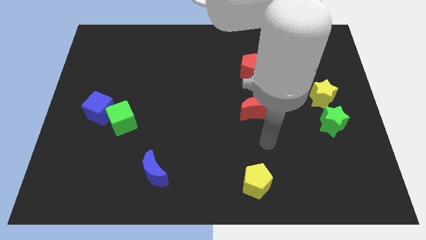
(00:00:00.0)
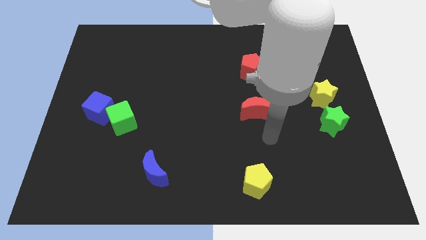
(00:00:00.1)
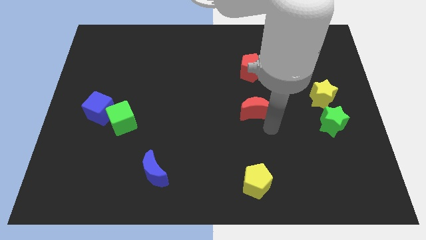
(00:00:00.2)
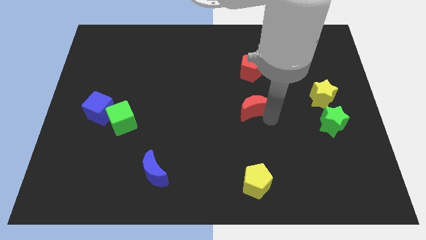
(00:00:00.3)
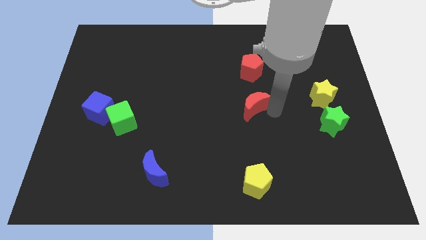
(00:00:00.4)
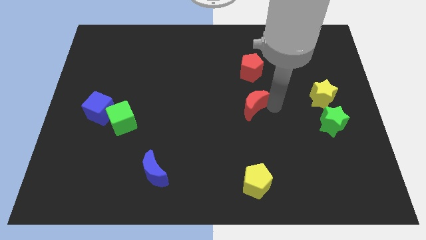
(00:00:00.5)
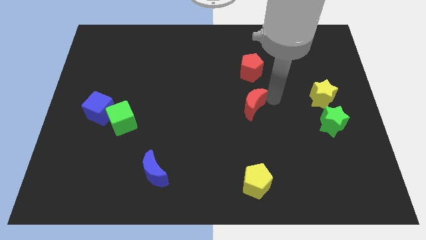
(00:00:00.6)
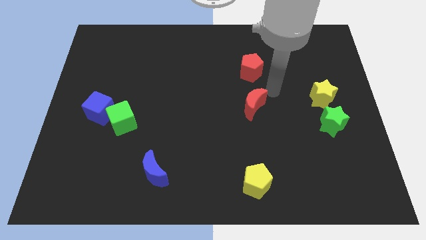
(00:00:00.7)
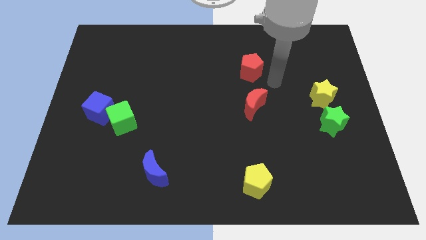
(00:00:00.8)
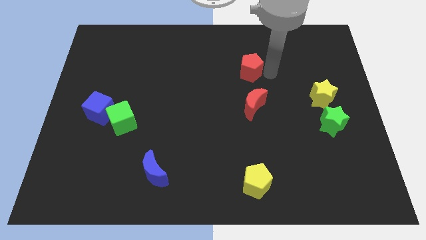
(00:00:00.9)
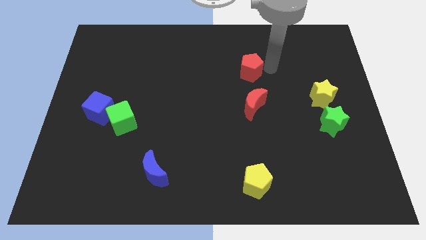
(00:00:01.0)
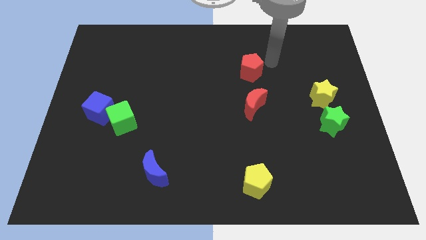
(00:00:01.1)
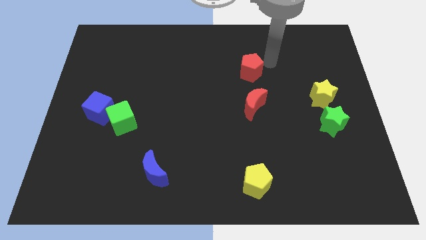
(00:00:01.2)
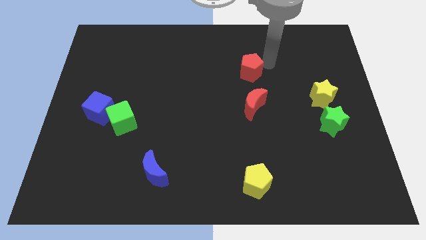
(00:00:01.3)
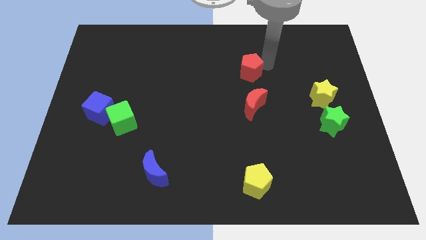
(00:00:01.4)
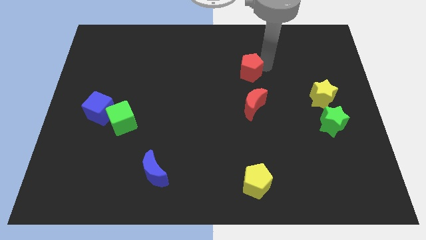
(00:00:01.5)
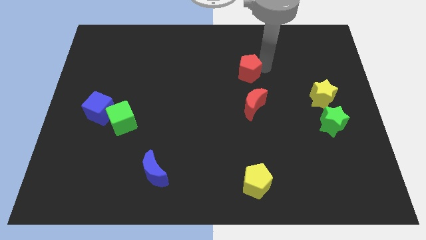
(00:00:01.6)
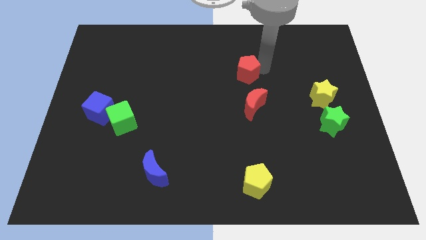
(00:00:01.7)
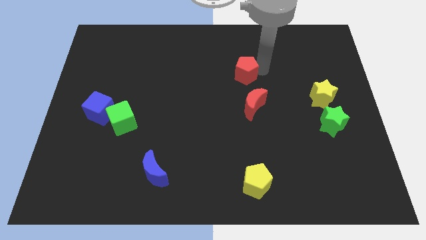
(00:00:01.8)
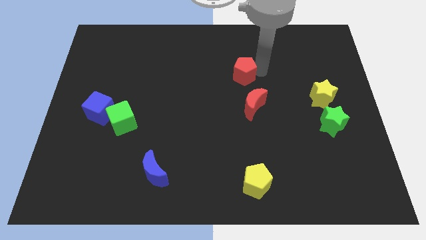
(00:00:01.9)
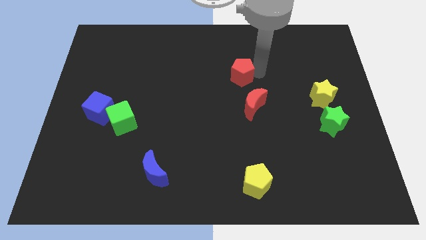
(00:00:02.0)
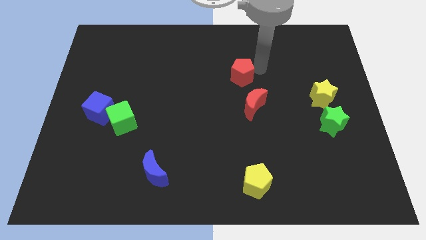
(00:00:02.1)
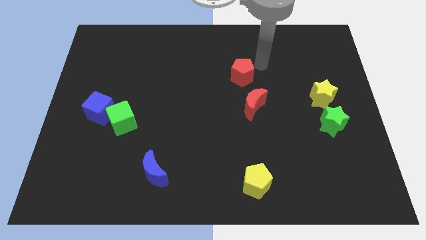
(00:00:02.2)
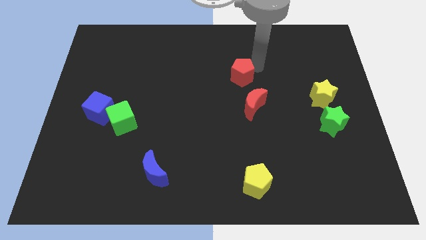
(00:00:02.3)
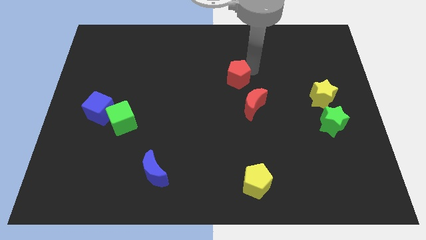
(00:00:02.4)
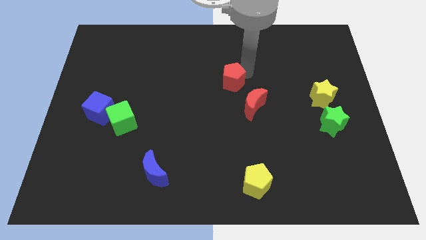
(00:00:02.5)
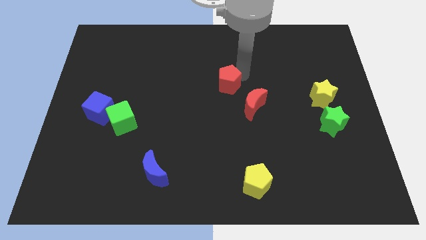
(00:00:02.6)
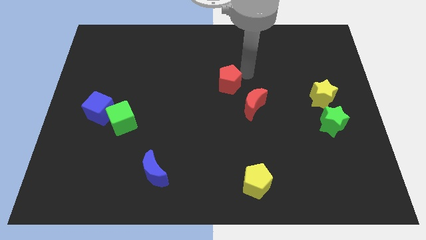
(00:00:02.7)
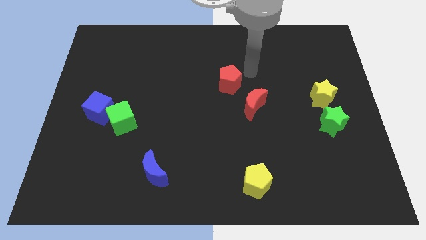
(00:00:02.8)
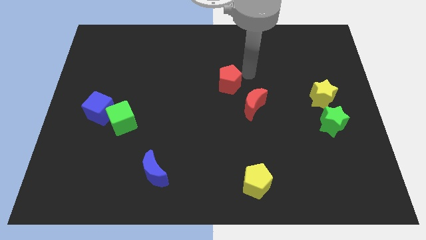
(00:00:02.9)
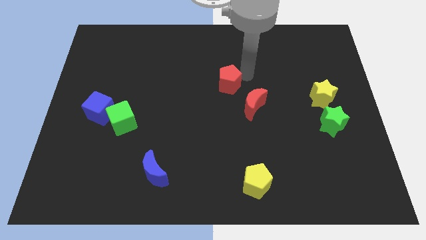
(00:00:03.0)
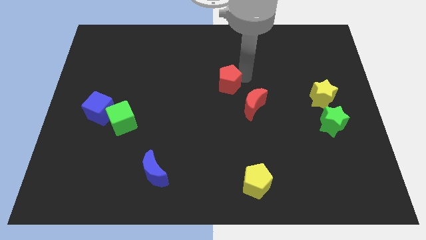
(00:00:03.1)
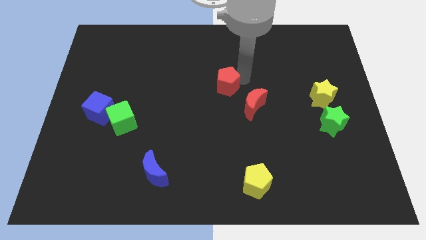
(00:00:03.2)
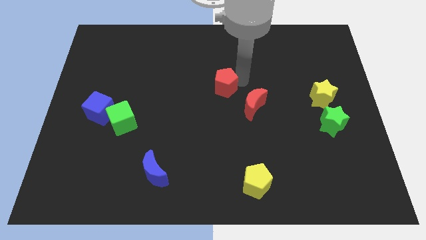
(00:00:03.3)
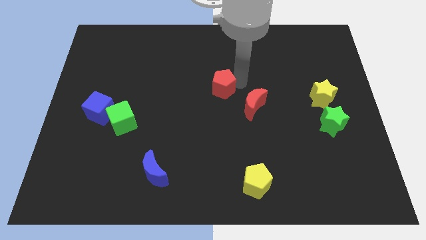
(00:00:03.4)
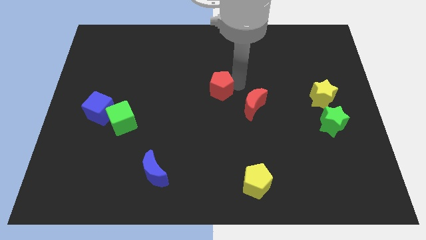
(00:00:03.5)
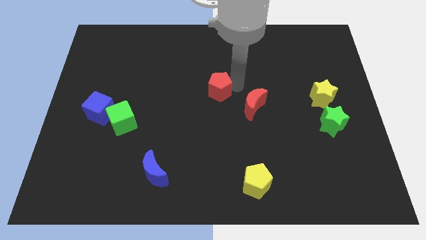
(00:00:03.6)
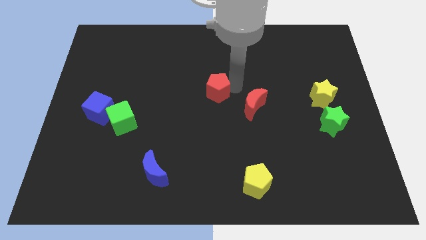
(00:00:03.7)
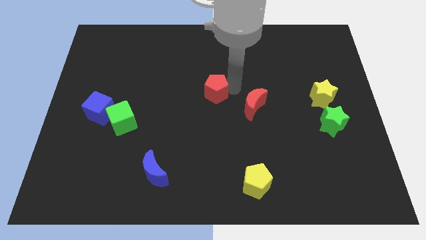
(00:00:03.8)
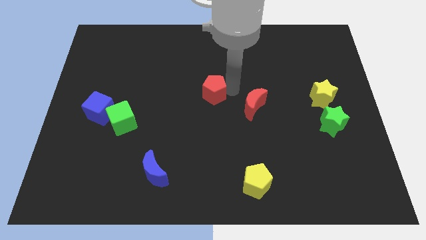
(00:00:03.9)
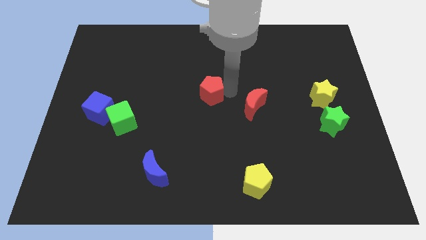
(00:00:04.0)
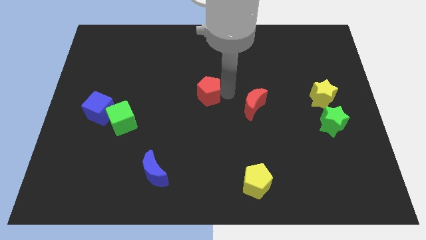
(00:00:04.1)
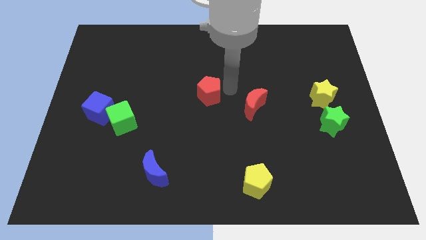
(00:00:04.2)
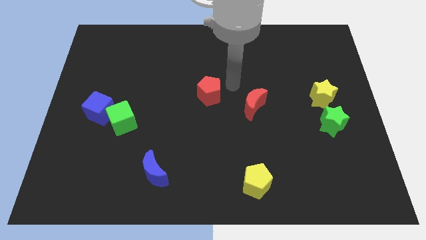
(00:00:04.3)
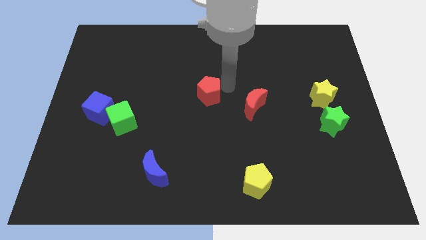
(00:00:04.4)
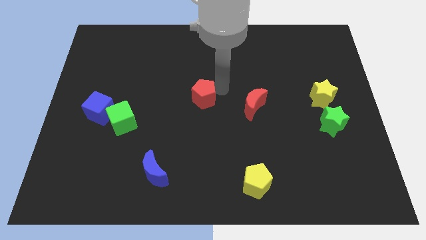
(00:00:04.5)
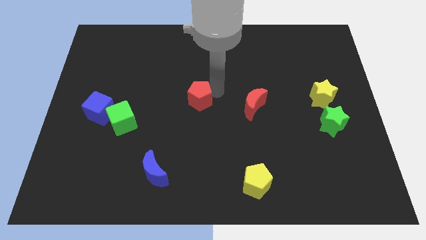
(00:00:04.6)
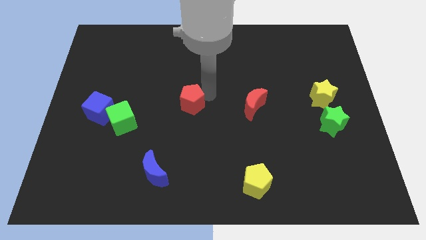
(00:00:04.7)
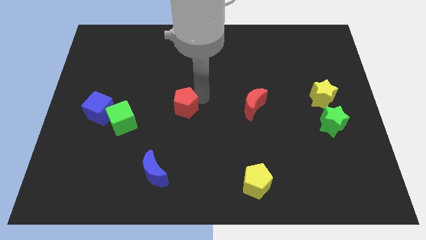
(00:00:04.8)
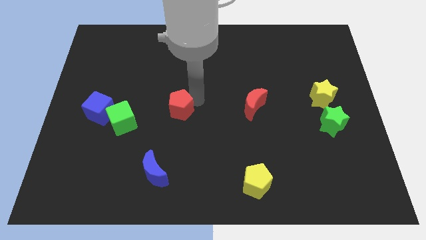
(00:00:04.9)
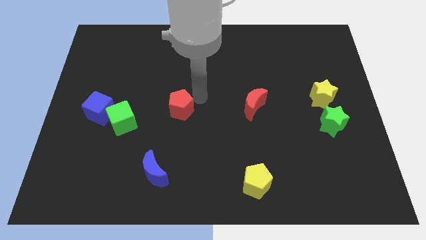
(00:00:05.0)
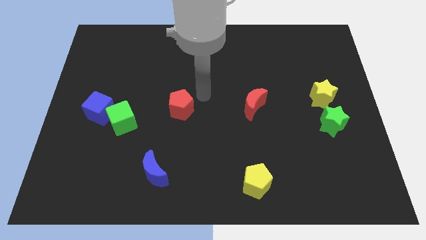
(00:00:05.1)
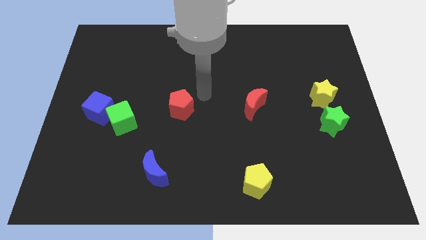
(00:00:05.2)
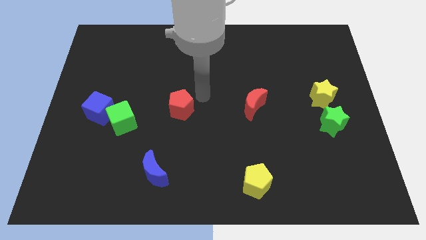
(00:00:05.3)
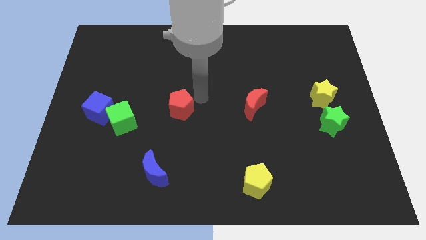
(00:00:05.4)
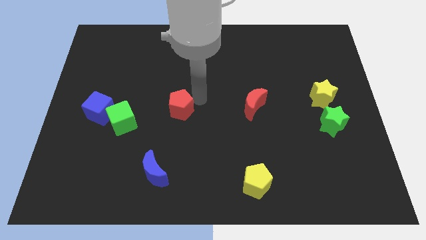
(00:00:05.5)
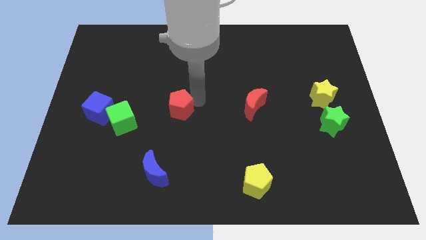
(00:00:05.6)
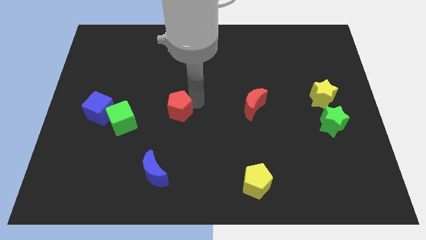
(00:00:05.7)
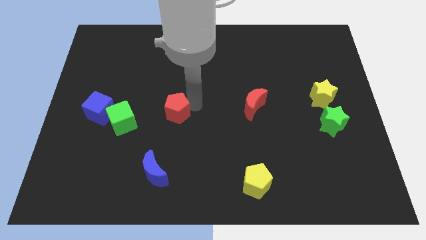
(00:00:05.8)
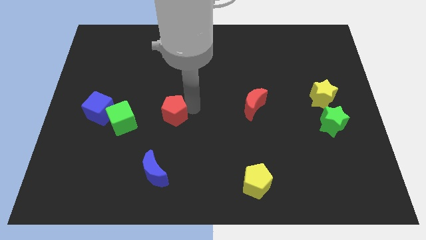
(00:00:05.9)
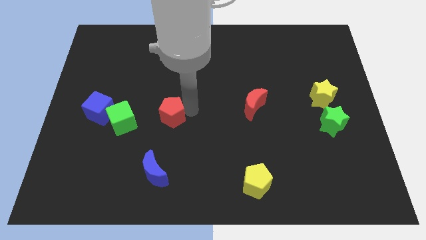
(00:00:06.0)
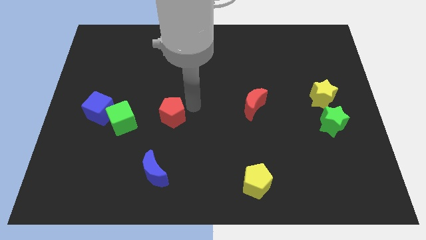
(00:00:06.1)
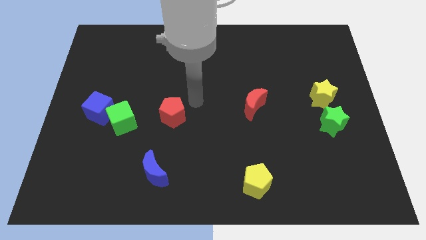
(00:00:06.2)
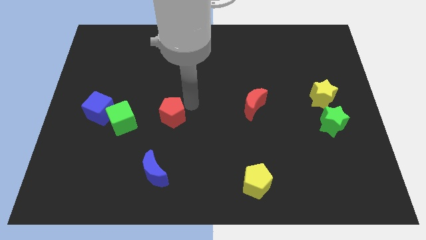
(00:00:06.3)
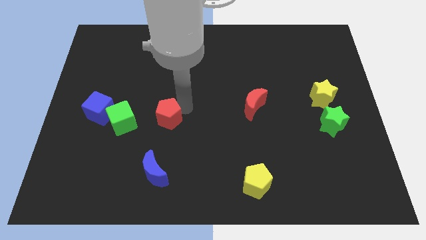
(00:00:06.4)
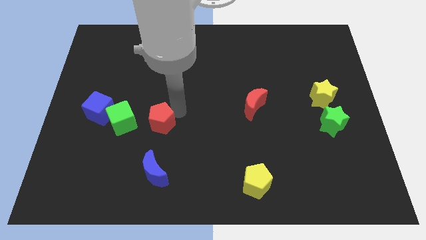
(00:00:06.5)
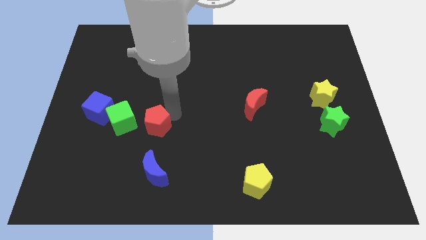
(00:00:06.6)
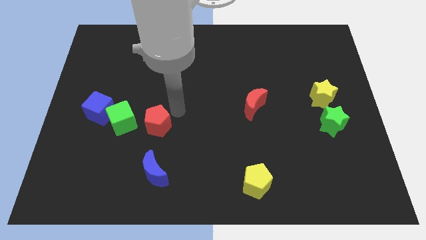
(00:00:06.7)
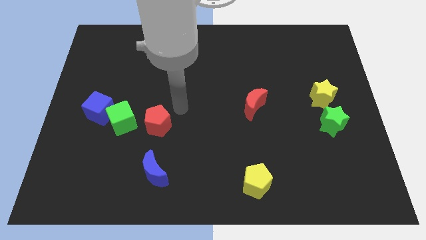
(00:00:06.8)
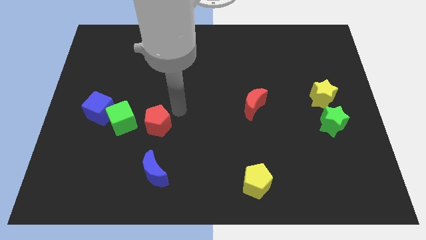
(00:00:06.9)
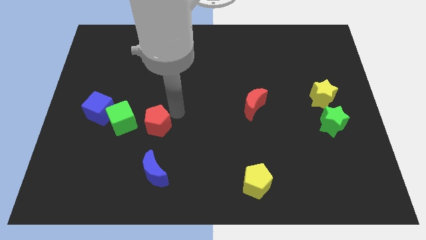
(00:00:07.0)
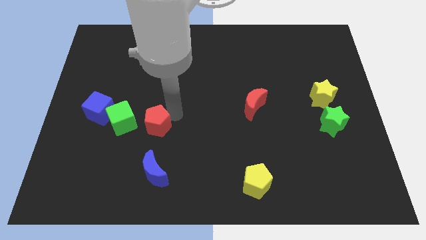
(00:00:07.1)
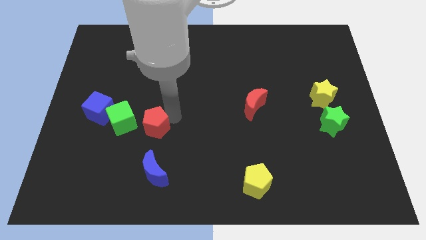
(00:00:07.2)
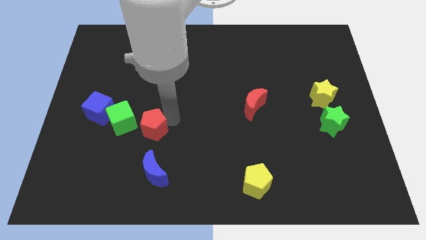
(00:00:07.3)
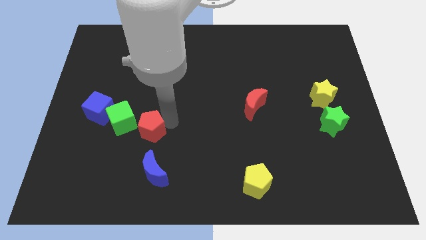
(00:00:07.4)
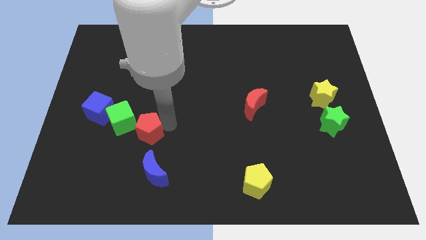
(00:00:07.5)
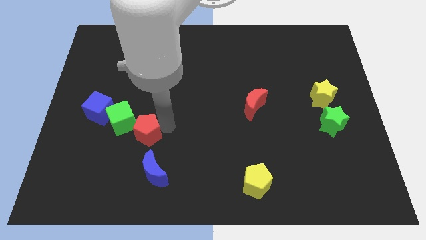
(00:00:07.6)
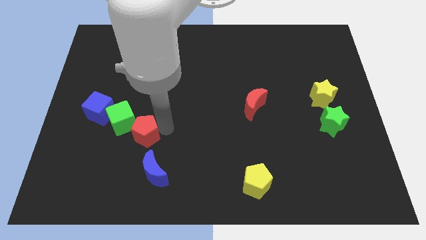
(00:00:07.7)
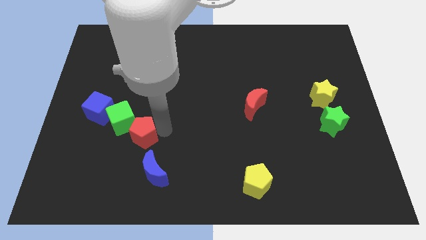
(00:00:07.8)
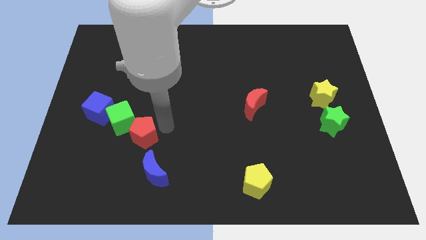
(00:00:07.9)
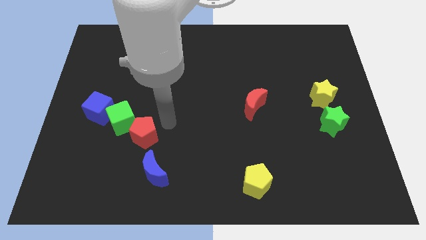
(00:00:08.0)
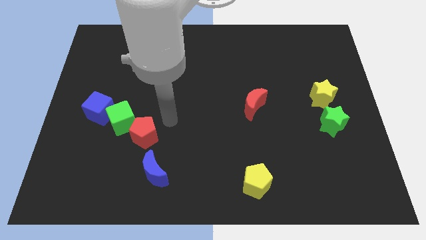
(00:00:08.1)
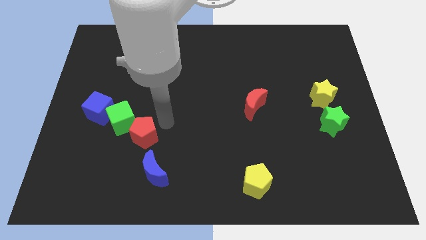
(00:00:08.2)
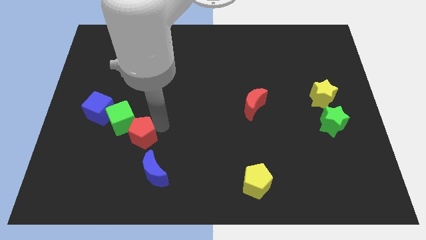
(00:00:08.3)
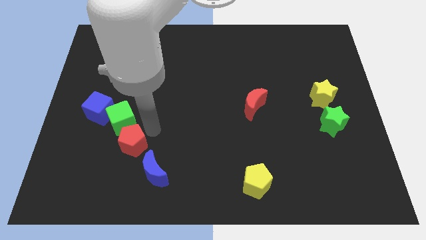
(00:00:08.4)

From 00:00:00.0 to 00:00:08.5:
put the red pentagon to the bottom of the green cube
